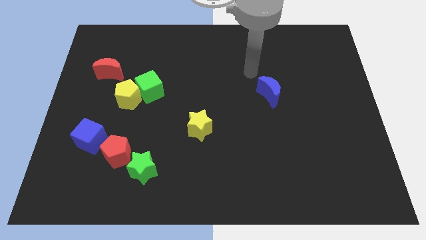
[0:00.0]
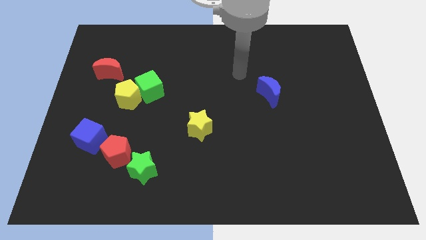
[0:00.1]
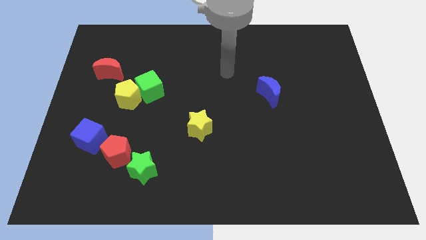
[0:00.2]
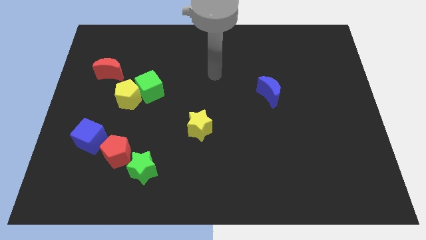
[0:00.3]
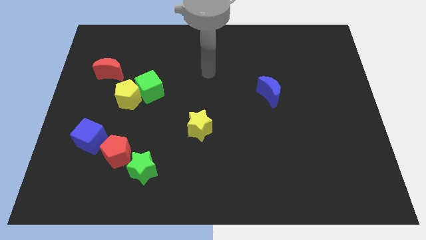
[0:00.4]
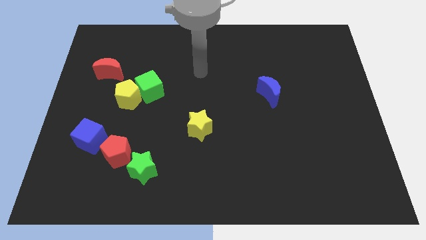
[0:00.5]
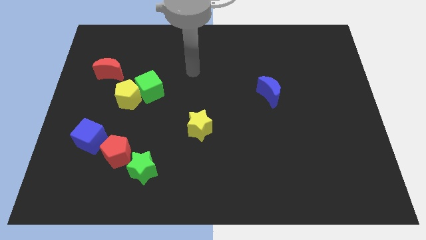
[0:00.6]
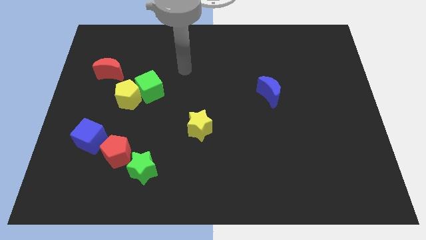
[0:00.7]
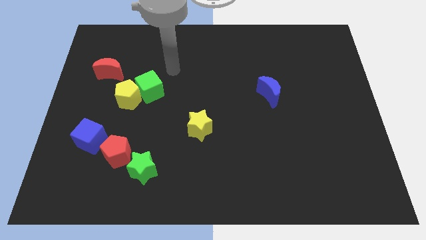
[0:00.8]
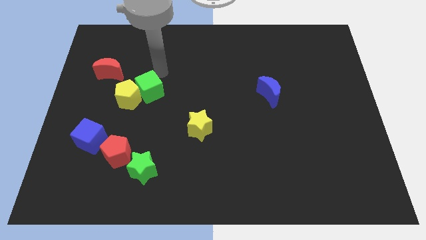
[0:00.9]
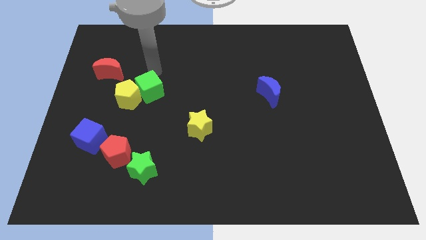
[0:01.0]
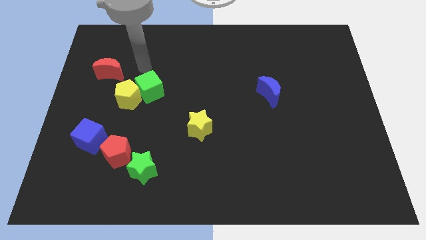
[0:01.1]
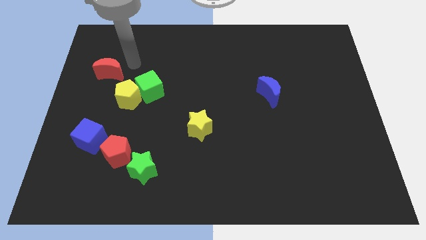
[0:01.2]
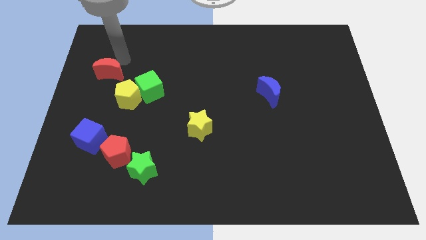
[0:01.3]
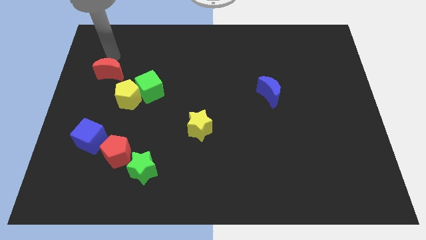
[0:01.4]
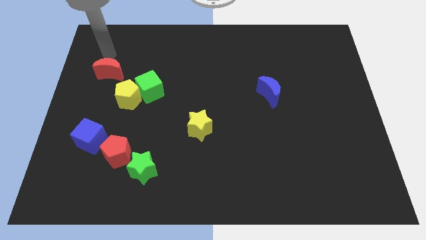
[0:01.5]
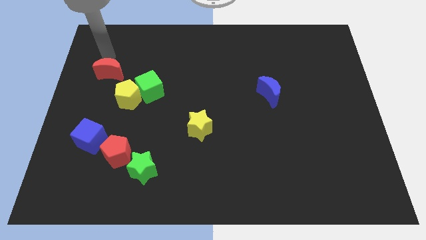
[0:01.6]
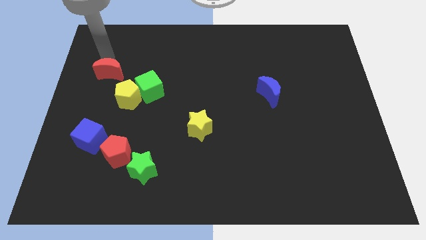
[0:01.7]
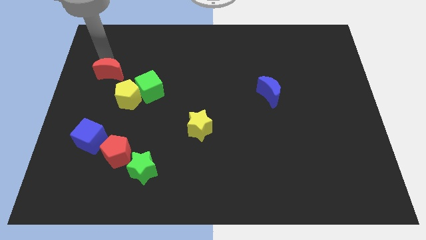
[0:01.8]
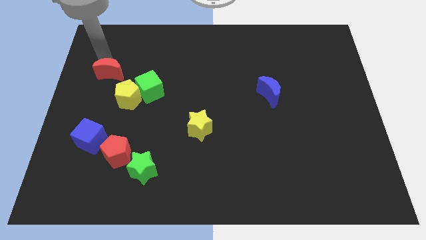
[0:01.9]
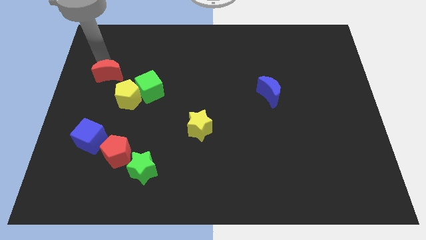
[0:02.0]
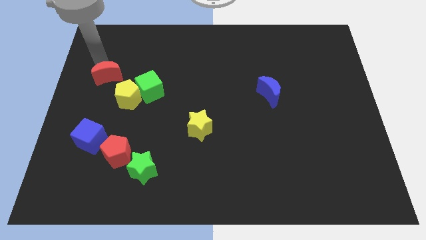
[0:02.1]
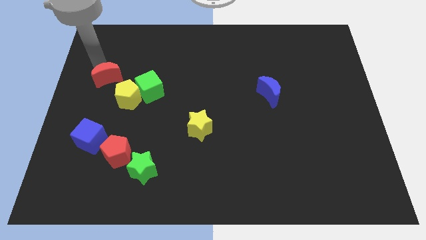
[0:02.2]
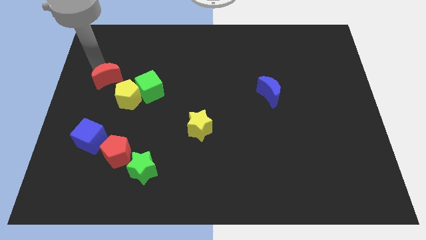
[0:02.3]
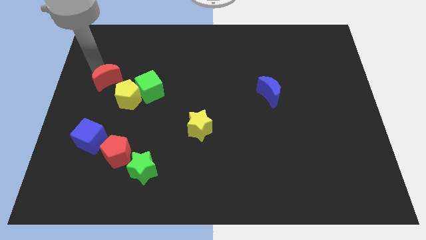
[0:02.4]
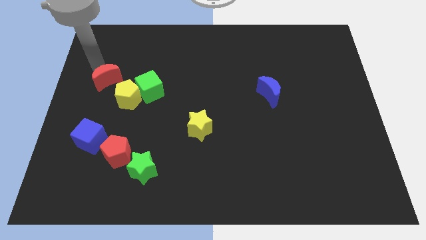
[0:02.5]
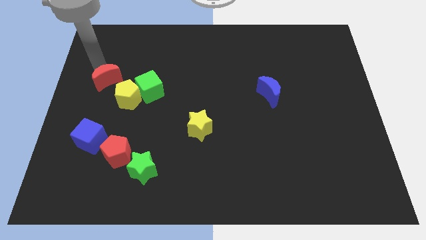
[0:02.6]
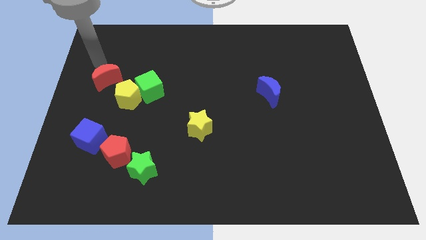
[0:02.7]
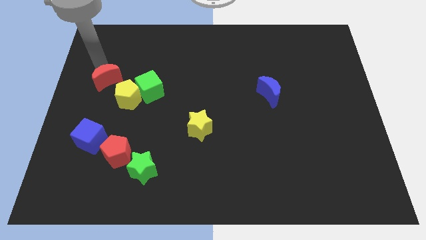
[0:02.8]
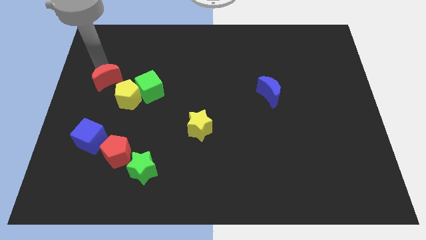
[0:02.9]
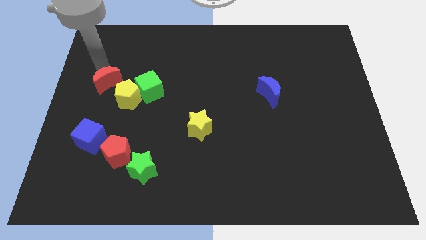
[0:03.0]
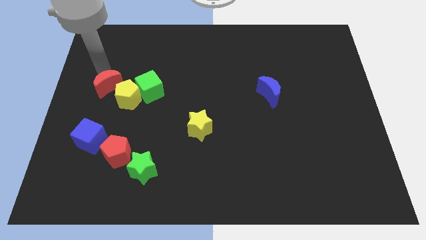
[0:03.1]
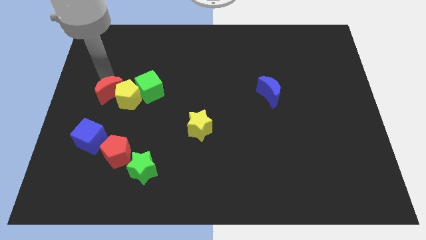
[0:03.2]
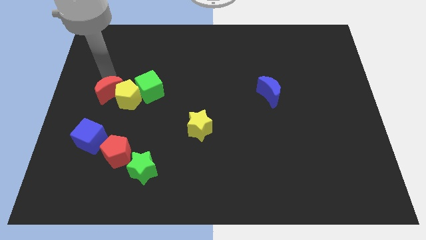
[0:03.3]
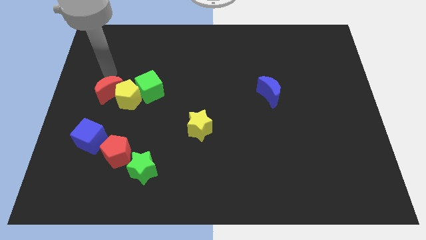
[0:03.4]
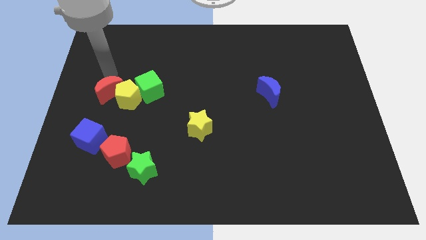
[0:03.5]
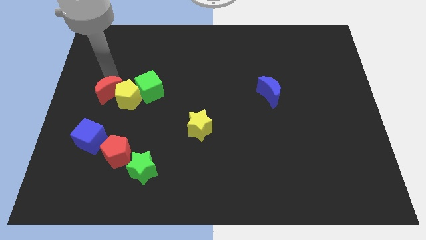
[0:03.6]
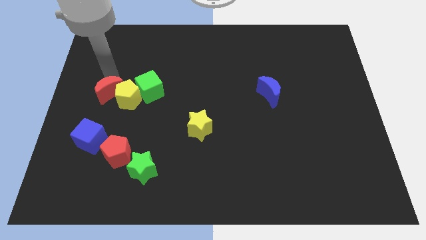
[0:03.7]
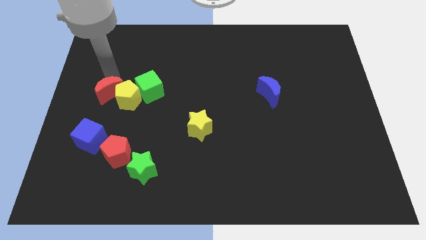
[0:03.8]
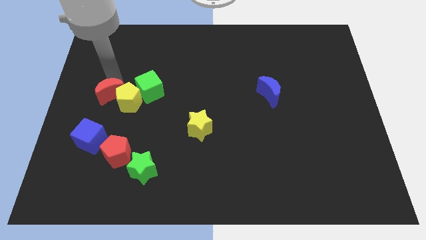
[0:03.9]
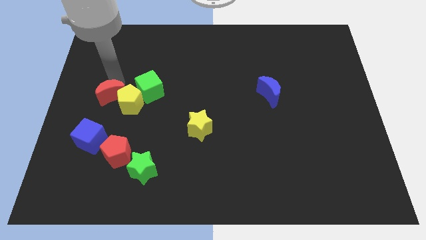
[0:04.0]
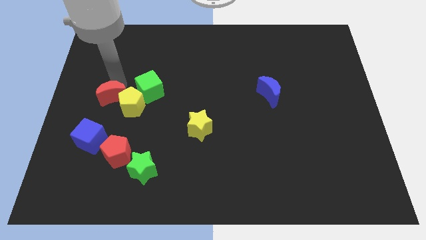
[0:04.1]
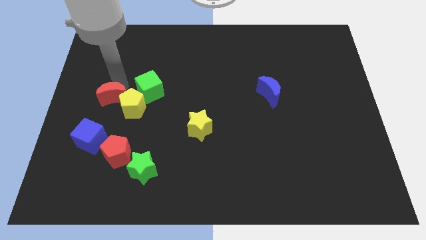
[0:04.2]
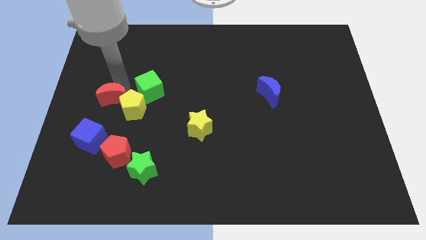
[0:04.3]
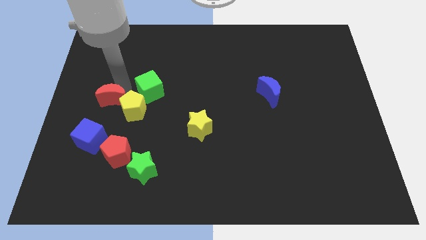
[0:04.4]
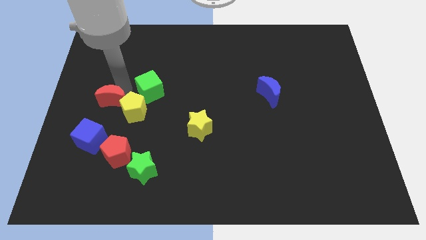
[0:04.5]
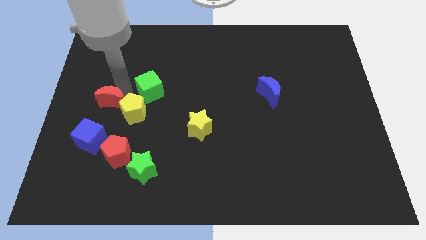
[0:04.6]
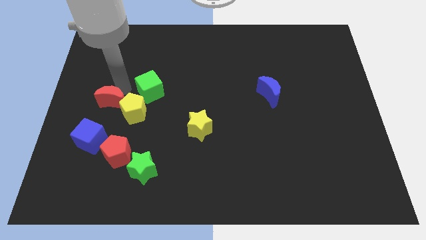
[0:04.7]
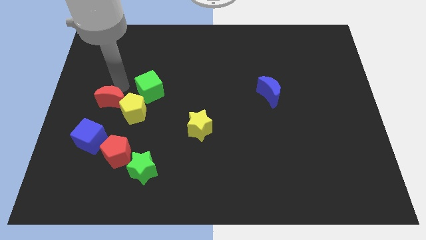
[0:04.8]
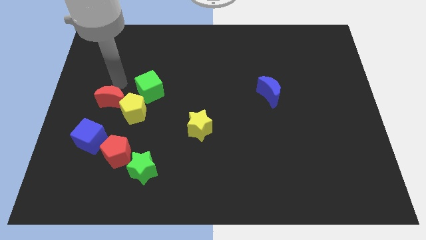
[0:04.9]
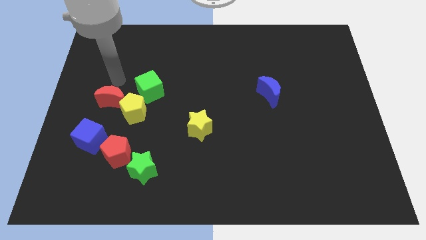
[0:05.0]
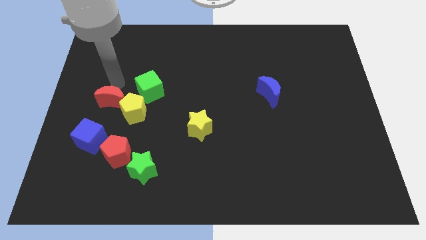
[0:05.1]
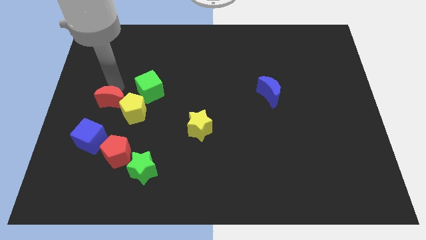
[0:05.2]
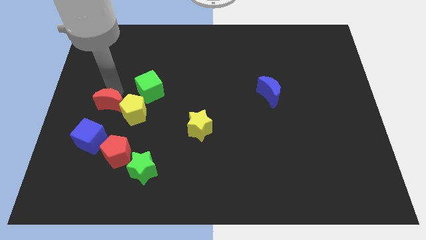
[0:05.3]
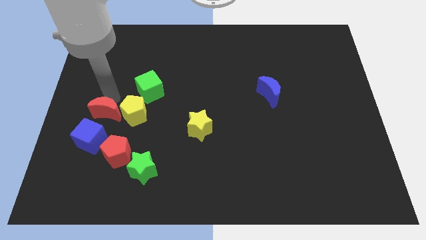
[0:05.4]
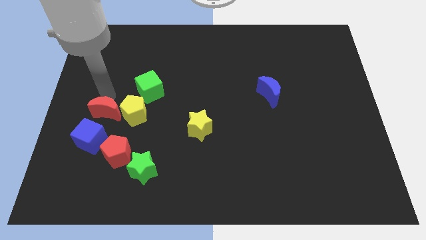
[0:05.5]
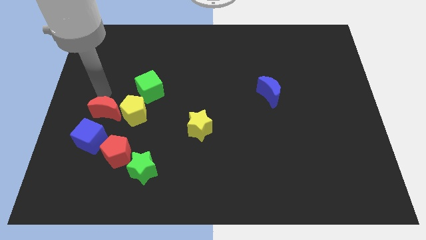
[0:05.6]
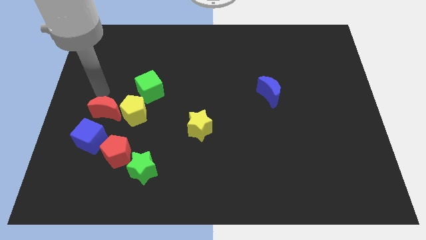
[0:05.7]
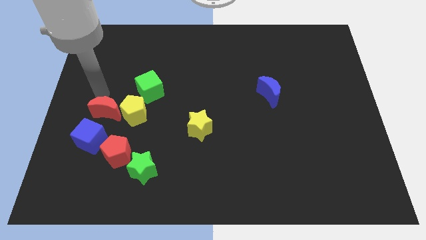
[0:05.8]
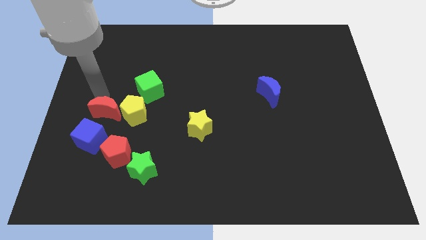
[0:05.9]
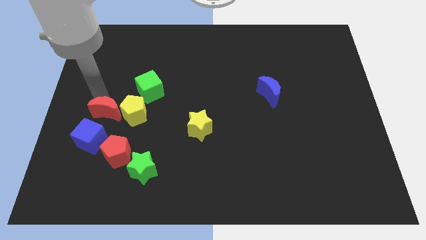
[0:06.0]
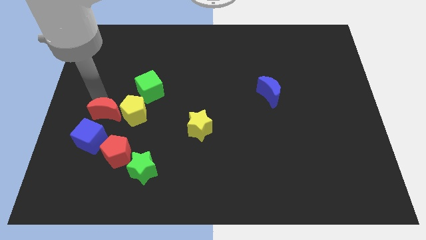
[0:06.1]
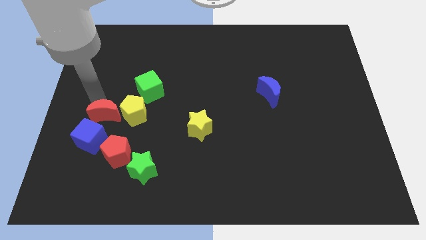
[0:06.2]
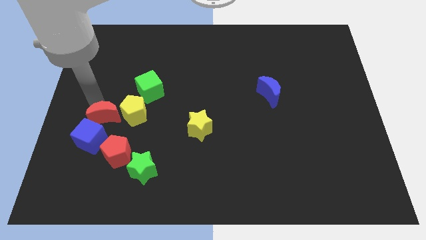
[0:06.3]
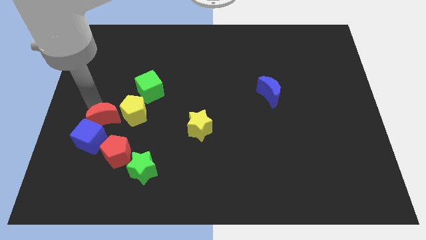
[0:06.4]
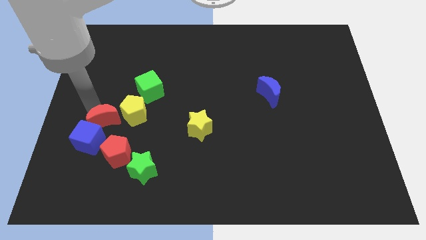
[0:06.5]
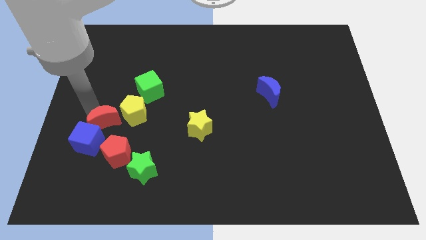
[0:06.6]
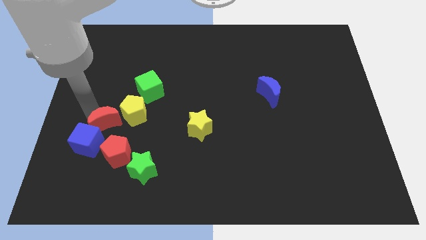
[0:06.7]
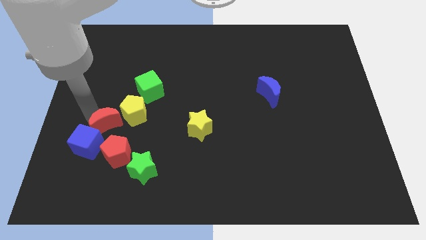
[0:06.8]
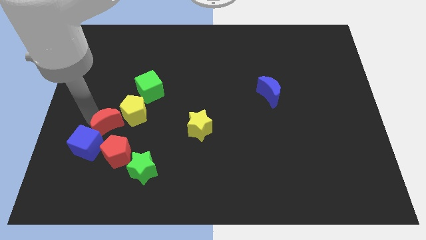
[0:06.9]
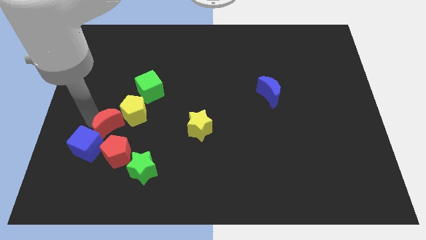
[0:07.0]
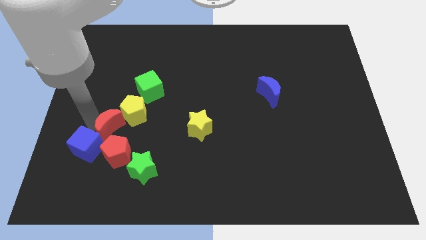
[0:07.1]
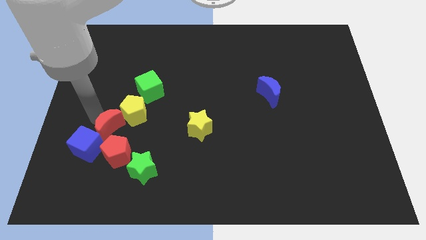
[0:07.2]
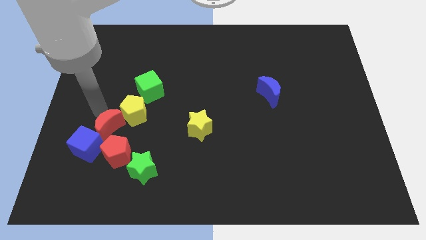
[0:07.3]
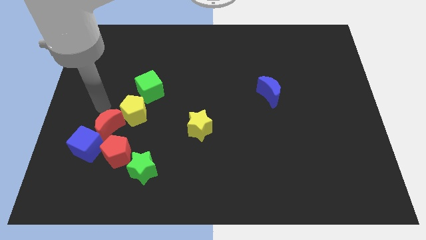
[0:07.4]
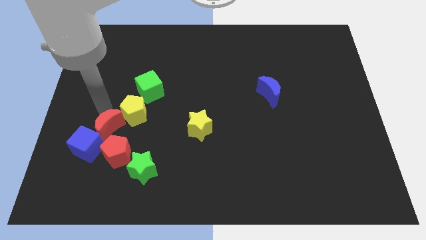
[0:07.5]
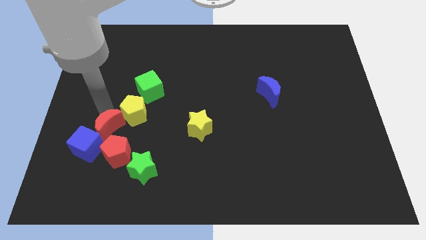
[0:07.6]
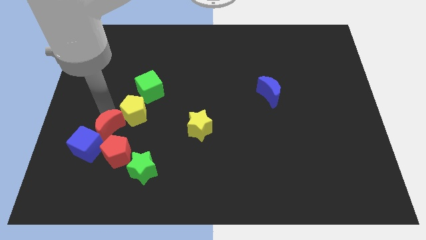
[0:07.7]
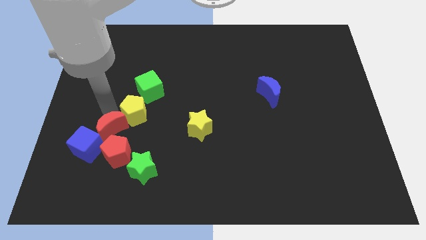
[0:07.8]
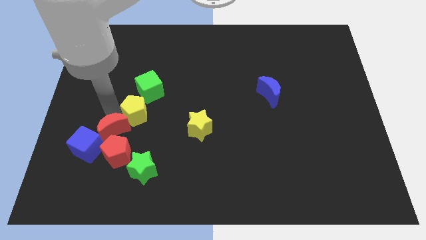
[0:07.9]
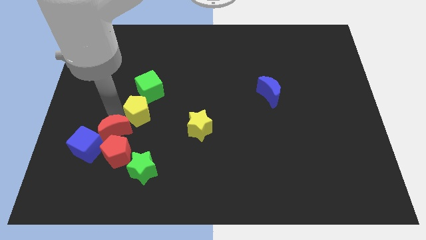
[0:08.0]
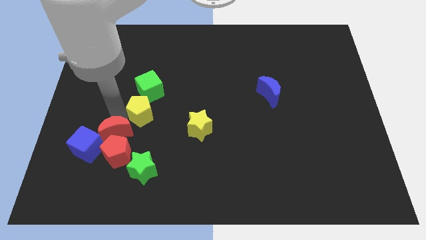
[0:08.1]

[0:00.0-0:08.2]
push the red moon to the red pentagon
